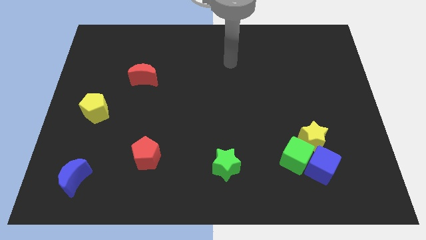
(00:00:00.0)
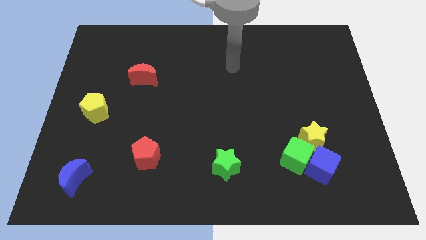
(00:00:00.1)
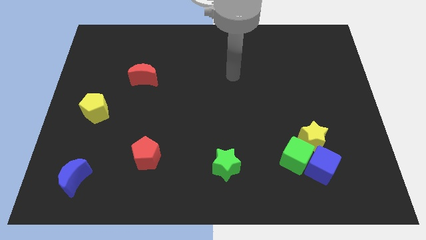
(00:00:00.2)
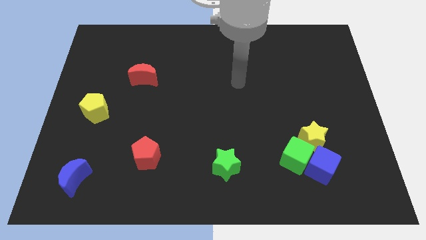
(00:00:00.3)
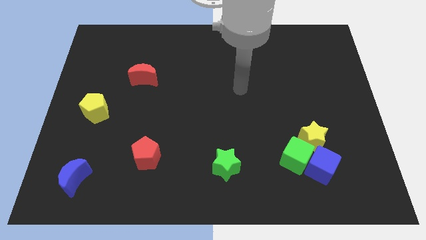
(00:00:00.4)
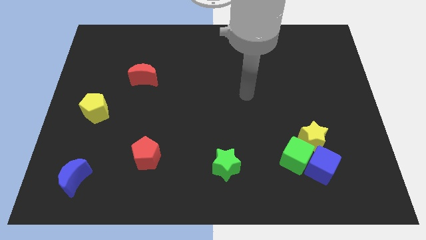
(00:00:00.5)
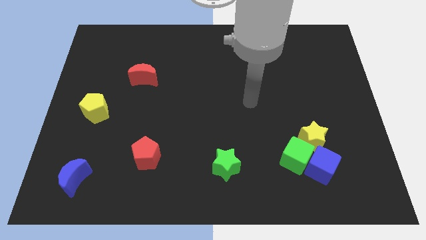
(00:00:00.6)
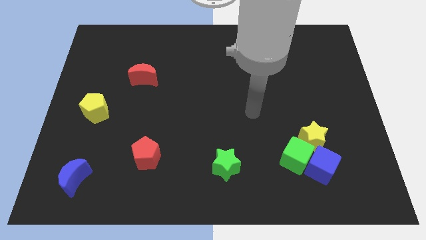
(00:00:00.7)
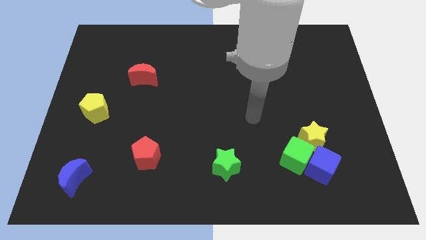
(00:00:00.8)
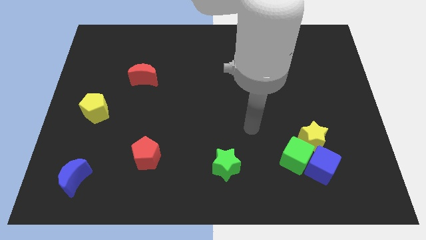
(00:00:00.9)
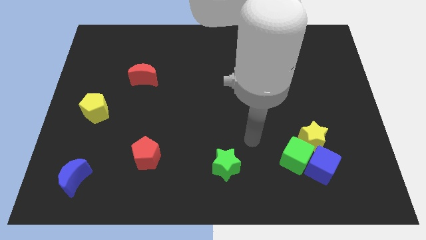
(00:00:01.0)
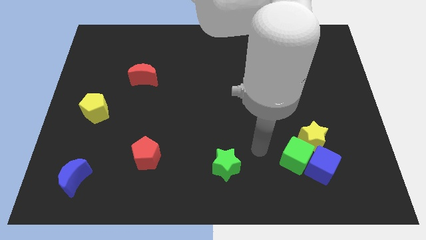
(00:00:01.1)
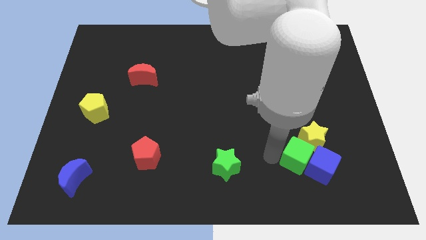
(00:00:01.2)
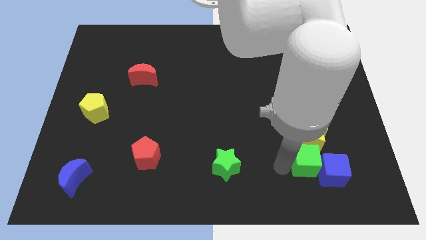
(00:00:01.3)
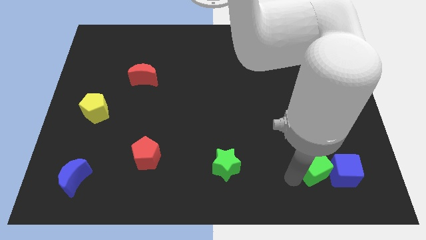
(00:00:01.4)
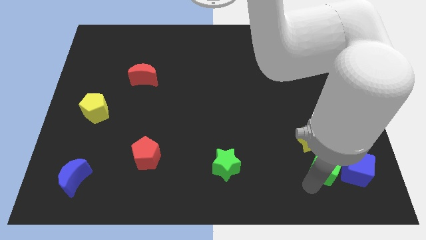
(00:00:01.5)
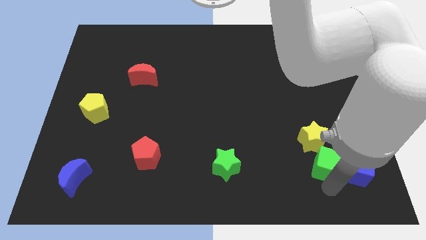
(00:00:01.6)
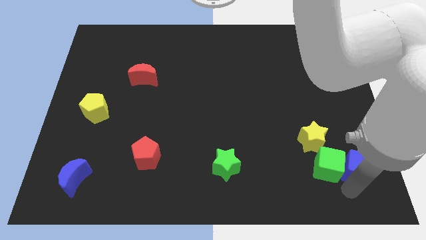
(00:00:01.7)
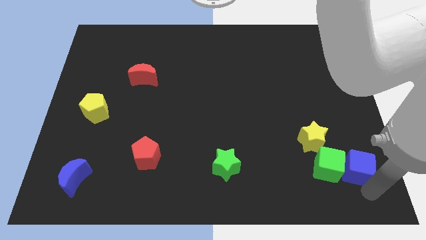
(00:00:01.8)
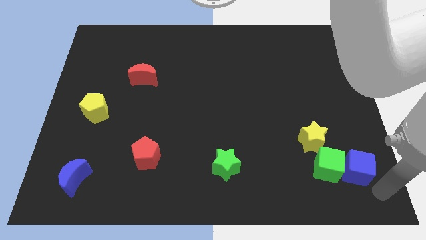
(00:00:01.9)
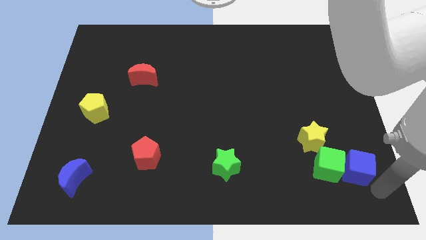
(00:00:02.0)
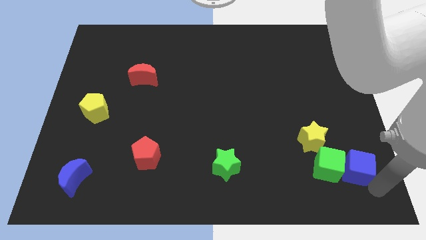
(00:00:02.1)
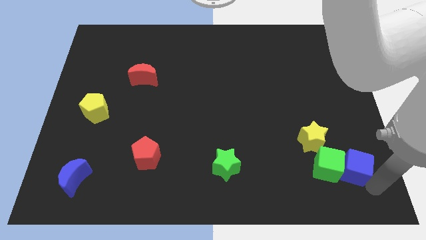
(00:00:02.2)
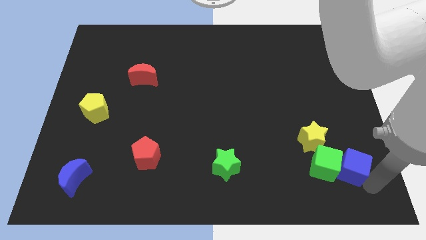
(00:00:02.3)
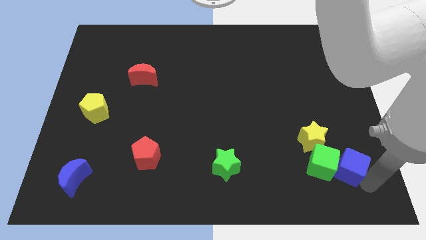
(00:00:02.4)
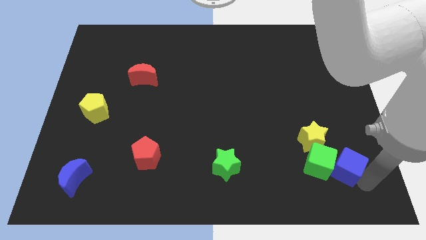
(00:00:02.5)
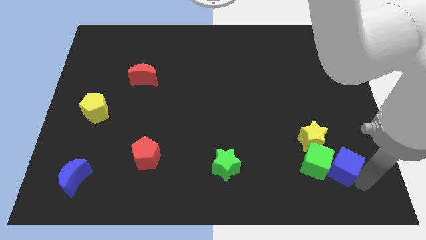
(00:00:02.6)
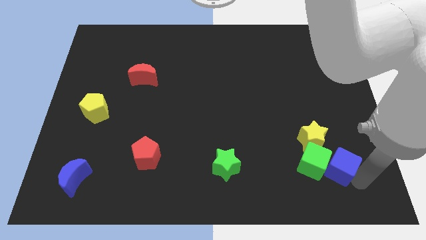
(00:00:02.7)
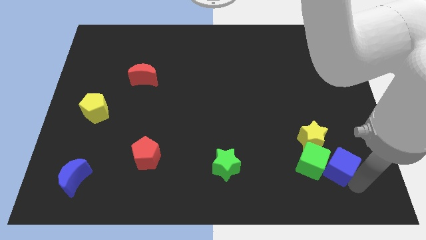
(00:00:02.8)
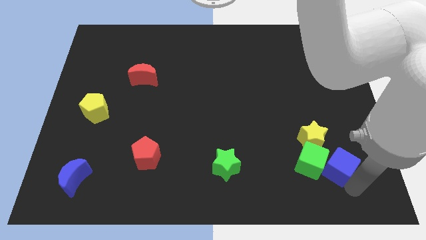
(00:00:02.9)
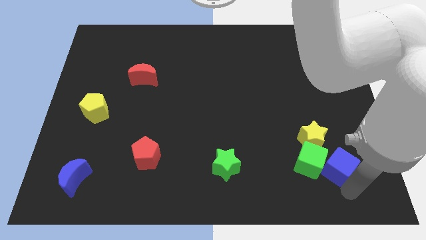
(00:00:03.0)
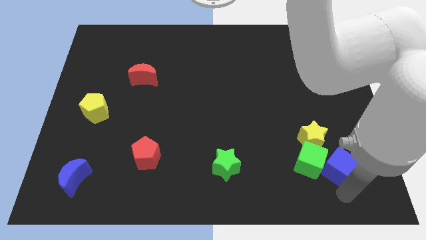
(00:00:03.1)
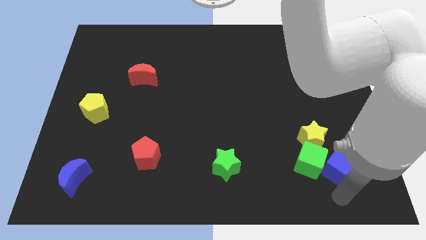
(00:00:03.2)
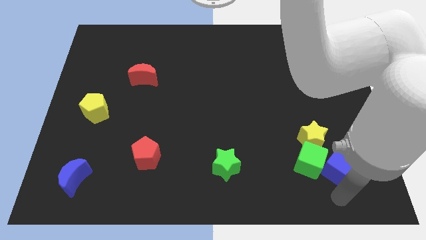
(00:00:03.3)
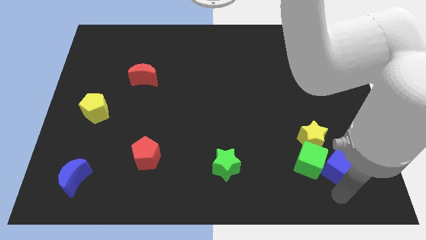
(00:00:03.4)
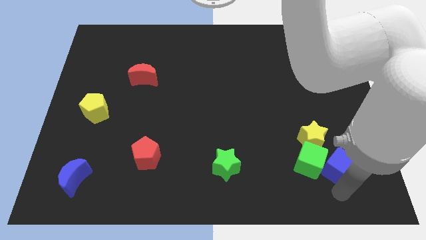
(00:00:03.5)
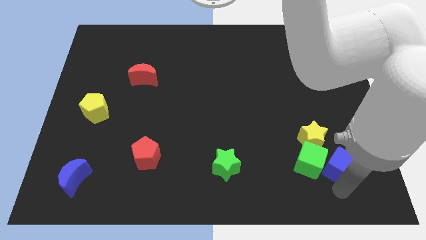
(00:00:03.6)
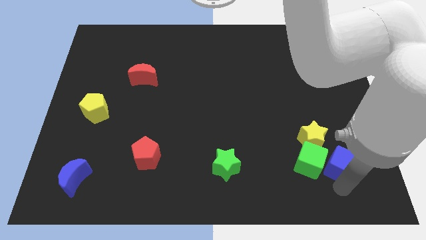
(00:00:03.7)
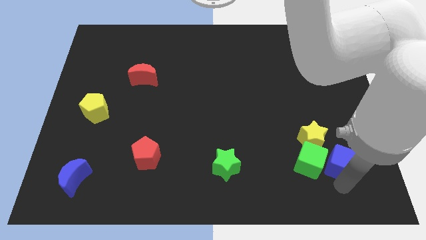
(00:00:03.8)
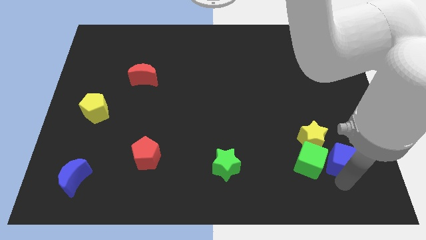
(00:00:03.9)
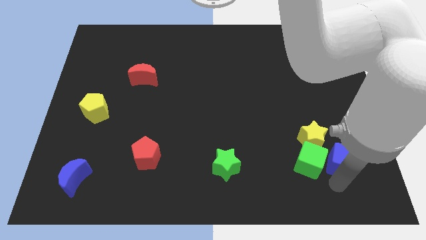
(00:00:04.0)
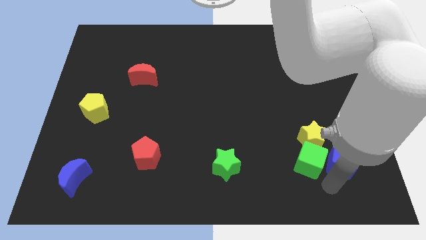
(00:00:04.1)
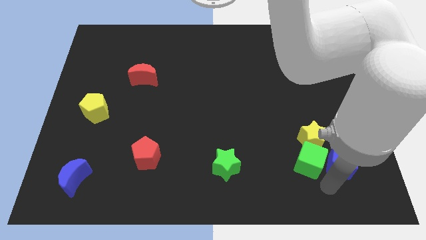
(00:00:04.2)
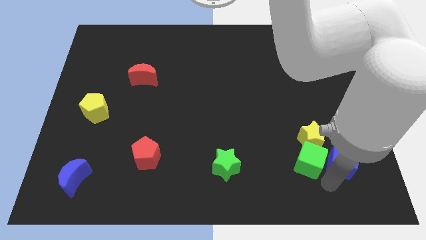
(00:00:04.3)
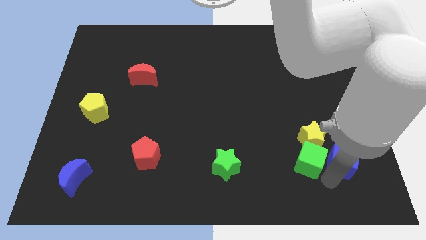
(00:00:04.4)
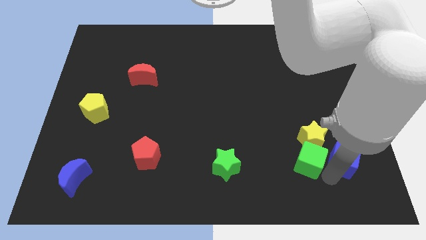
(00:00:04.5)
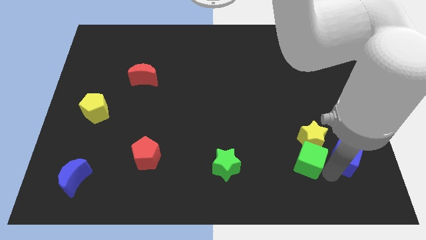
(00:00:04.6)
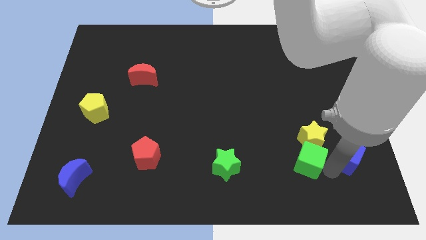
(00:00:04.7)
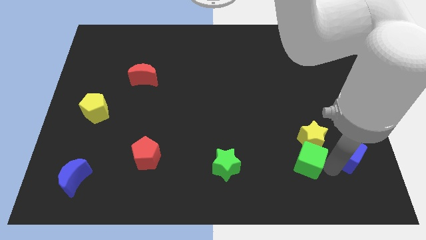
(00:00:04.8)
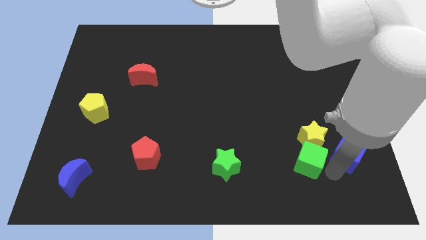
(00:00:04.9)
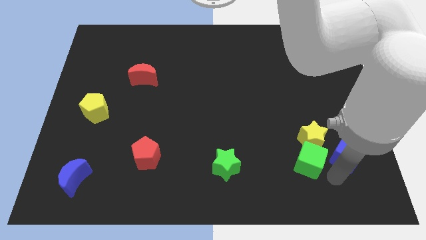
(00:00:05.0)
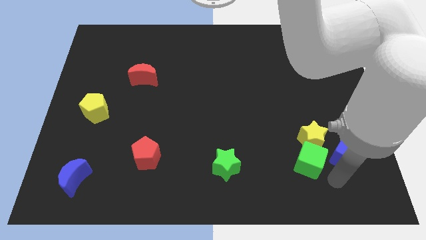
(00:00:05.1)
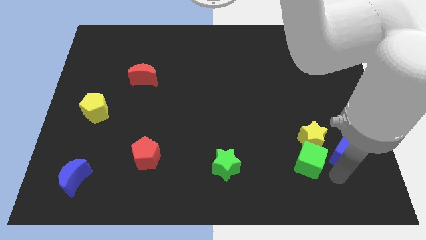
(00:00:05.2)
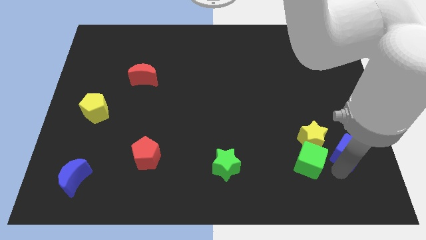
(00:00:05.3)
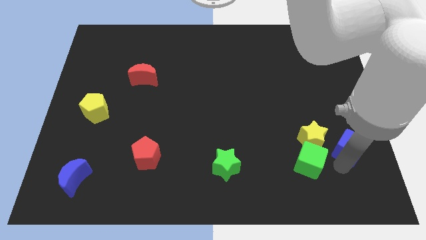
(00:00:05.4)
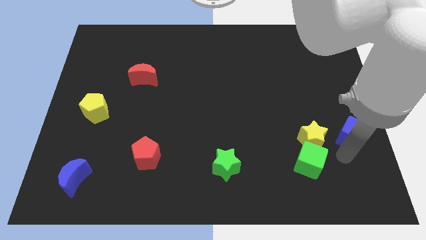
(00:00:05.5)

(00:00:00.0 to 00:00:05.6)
put the blue cube to the right side of the board

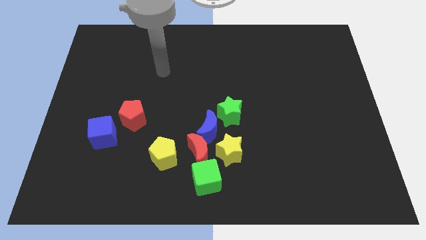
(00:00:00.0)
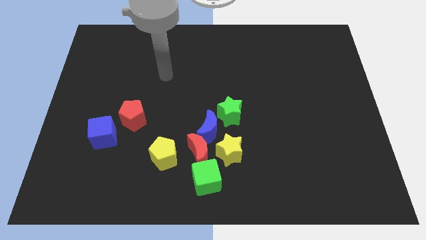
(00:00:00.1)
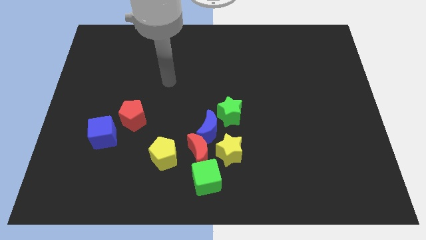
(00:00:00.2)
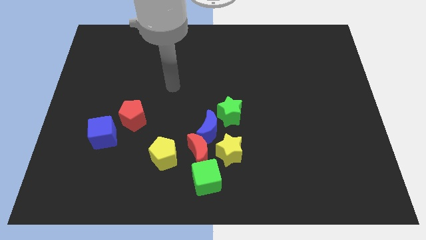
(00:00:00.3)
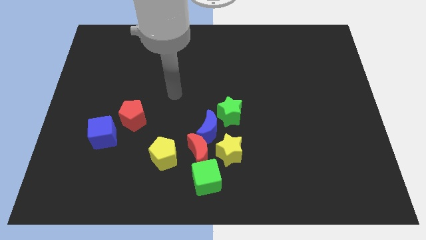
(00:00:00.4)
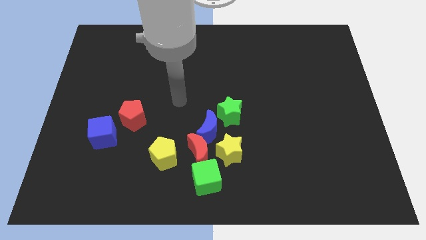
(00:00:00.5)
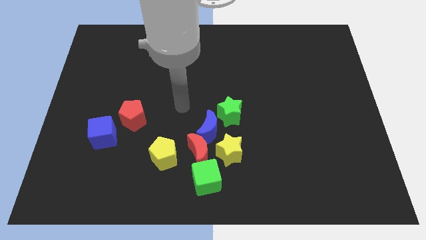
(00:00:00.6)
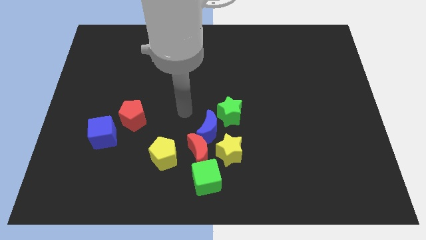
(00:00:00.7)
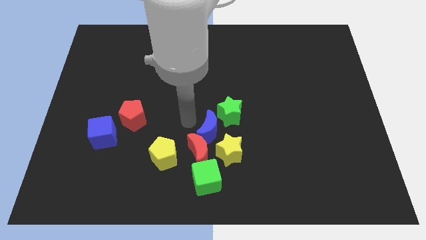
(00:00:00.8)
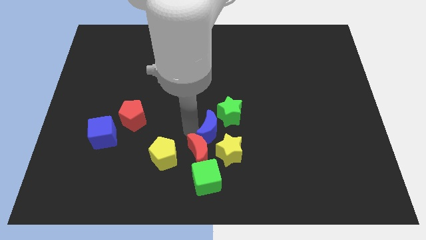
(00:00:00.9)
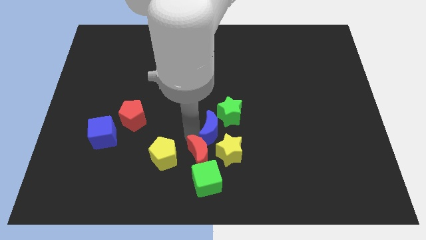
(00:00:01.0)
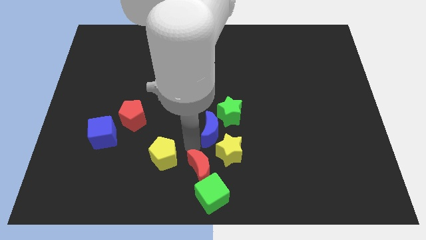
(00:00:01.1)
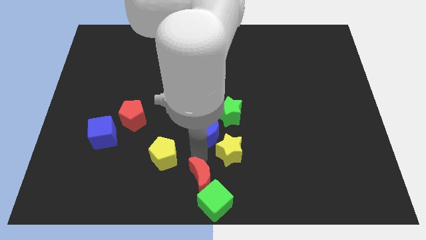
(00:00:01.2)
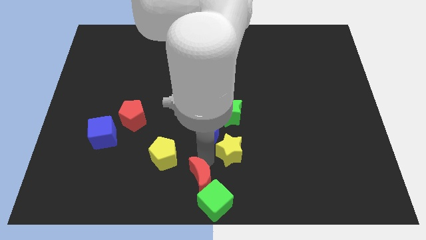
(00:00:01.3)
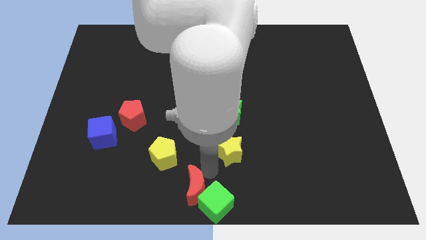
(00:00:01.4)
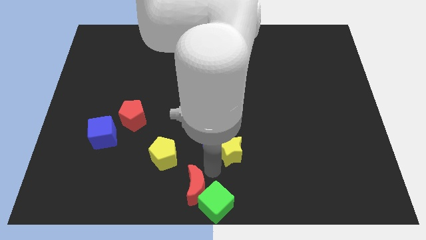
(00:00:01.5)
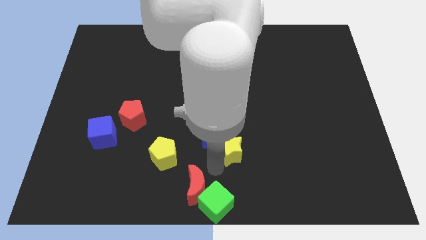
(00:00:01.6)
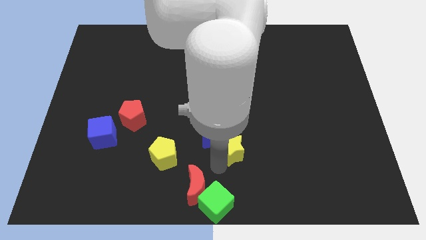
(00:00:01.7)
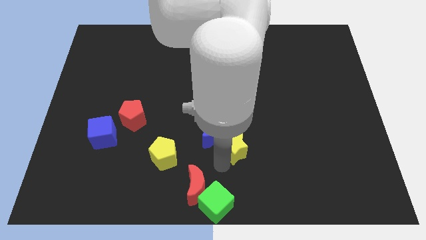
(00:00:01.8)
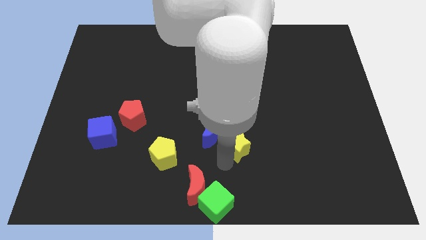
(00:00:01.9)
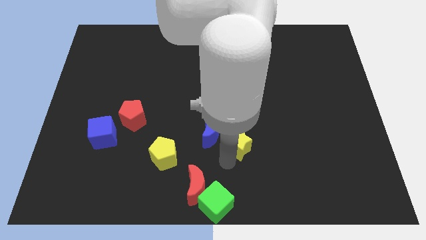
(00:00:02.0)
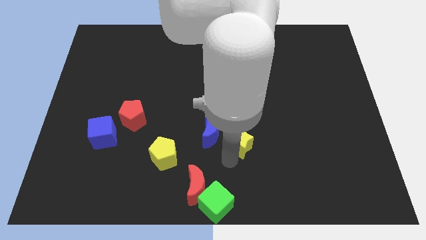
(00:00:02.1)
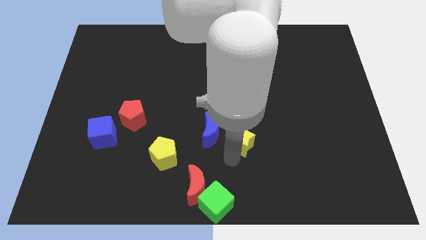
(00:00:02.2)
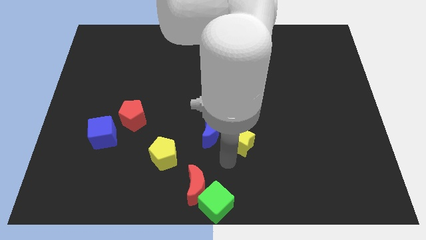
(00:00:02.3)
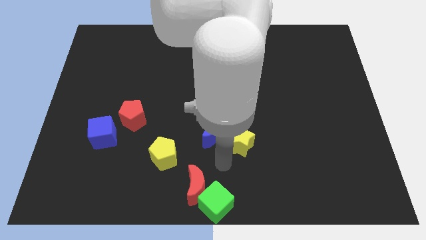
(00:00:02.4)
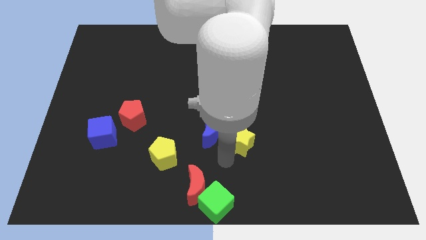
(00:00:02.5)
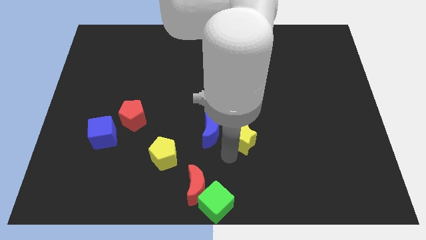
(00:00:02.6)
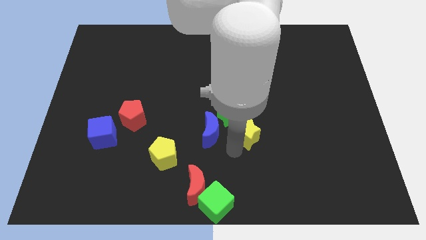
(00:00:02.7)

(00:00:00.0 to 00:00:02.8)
move the yellow star to the center of the board
